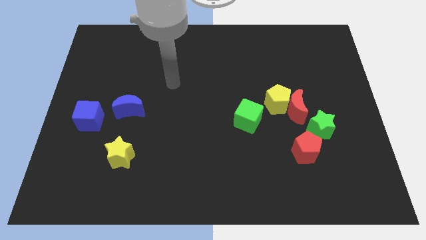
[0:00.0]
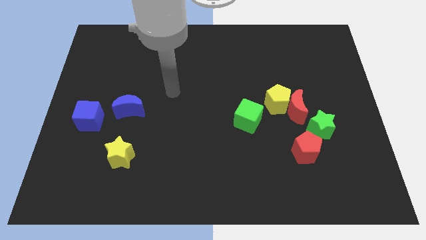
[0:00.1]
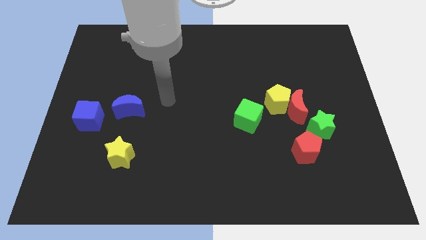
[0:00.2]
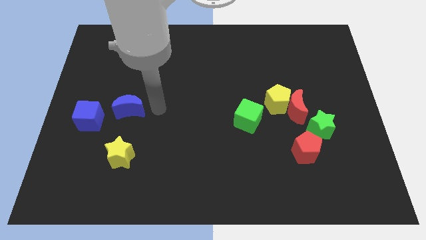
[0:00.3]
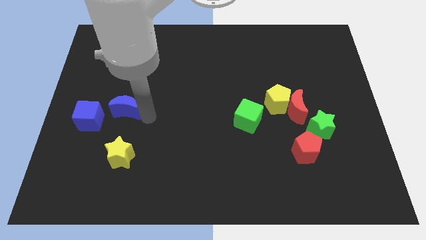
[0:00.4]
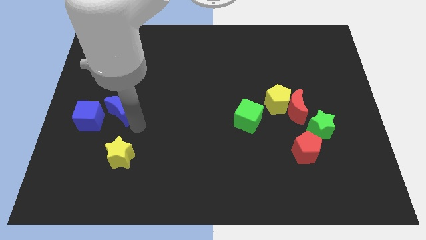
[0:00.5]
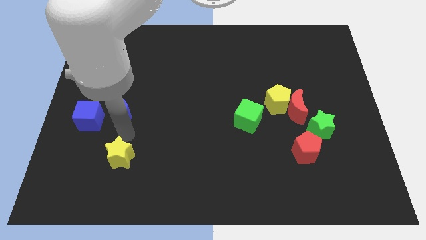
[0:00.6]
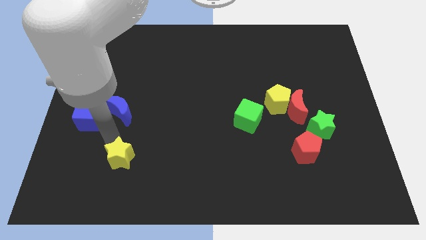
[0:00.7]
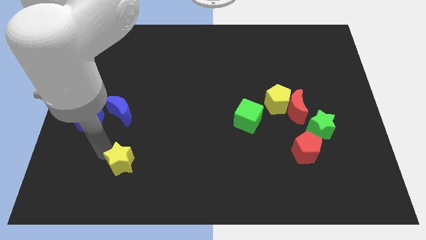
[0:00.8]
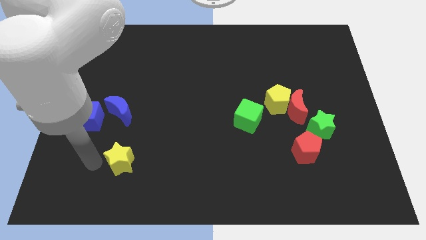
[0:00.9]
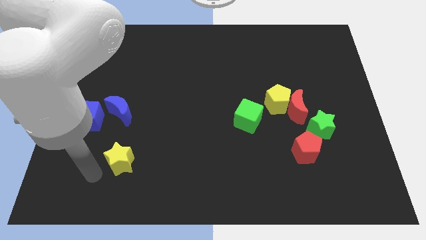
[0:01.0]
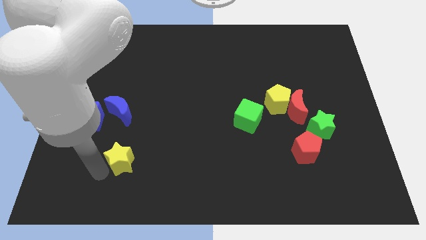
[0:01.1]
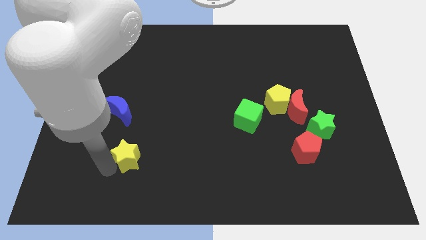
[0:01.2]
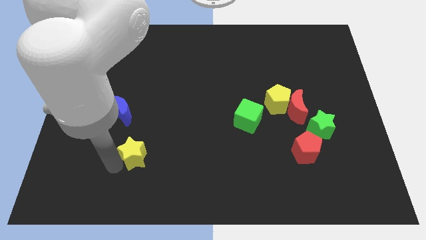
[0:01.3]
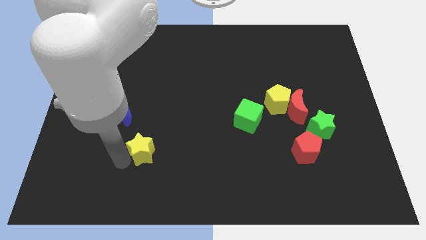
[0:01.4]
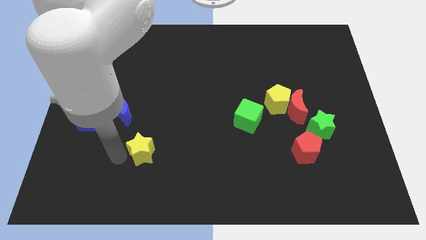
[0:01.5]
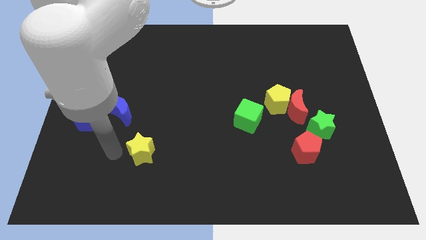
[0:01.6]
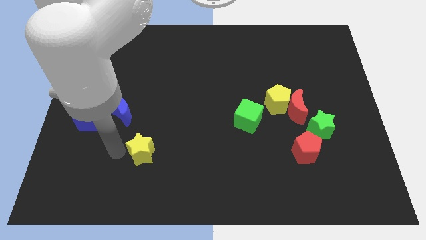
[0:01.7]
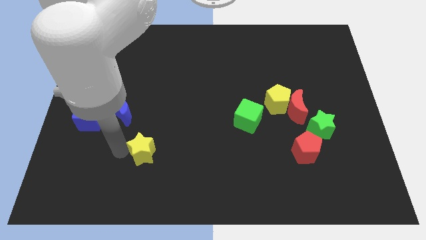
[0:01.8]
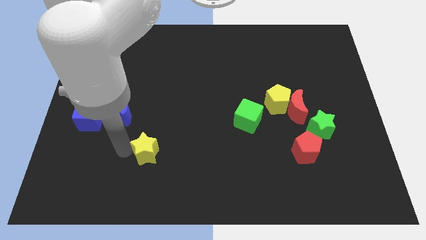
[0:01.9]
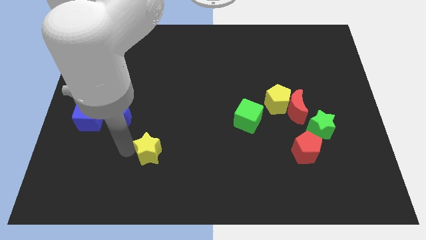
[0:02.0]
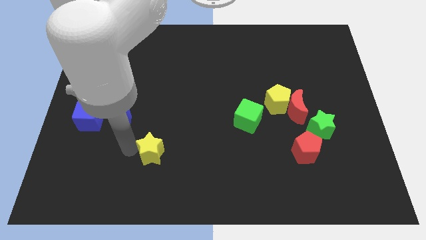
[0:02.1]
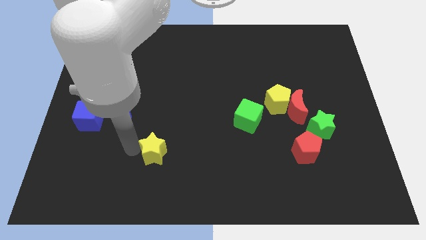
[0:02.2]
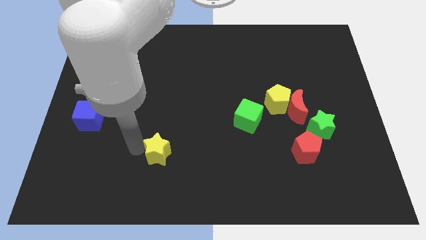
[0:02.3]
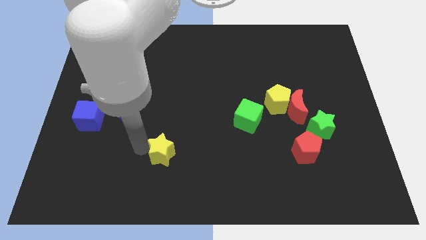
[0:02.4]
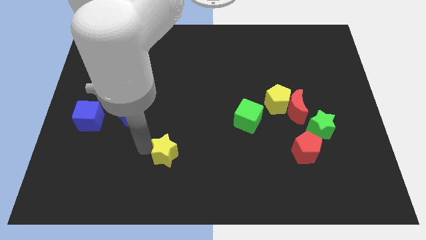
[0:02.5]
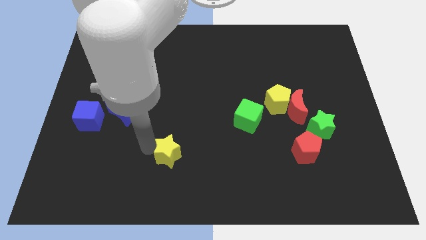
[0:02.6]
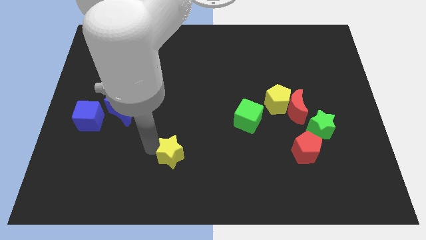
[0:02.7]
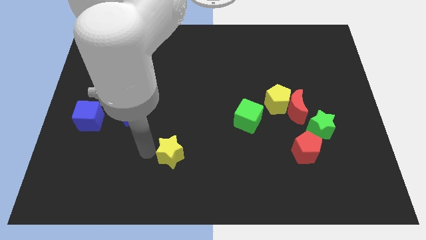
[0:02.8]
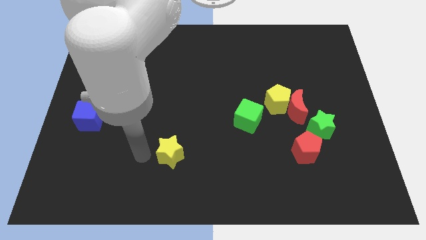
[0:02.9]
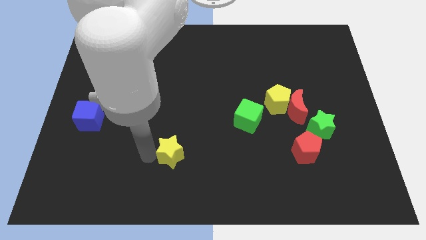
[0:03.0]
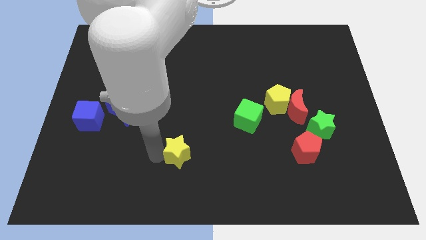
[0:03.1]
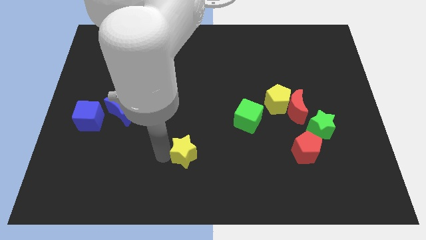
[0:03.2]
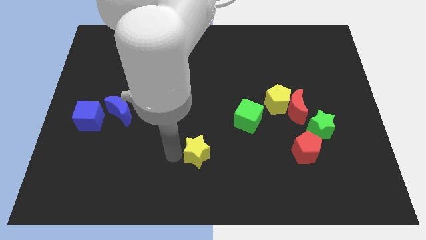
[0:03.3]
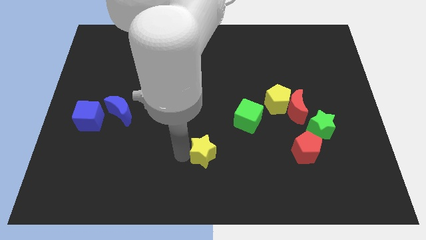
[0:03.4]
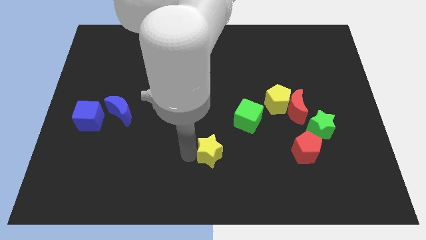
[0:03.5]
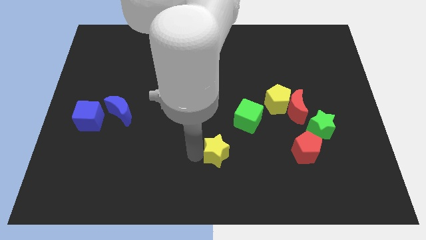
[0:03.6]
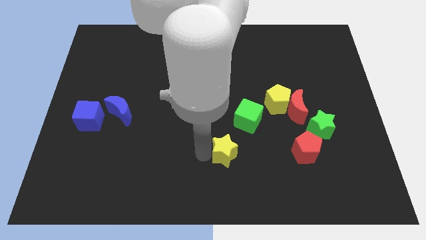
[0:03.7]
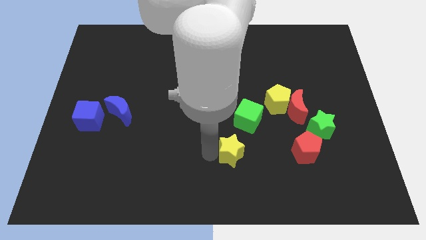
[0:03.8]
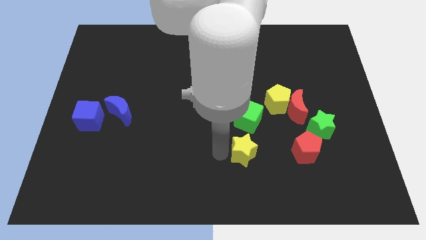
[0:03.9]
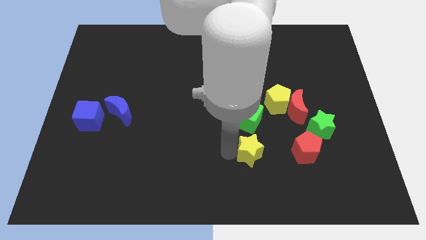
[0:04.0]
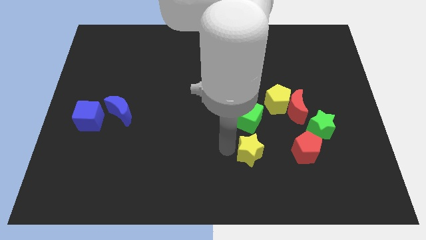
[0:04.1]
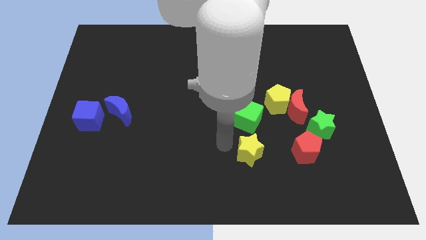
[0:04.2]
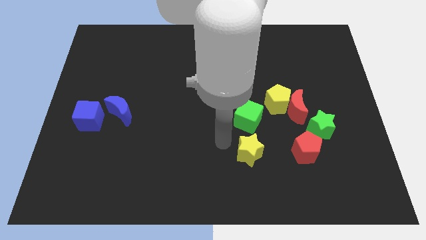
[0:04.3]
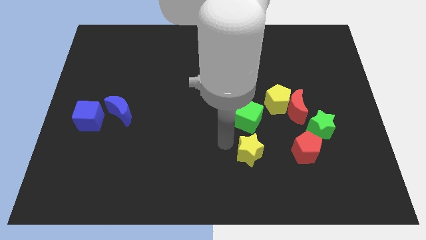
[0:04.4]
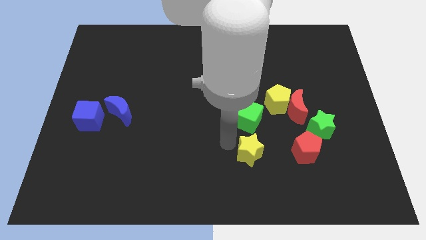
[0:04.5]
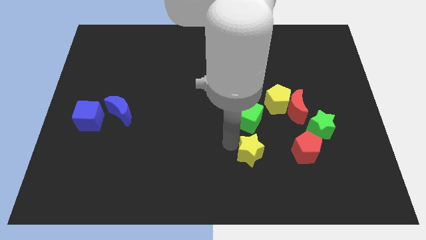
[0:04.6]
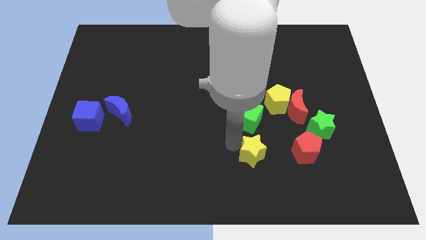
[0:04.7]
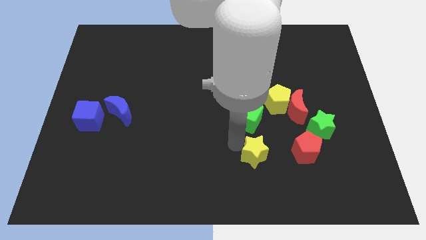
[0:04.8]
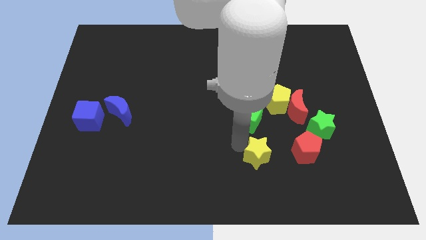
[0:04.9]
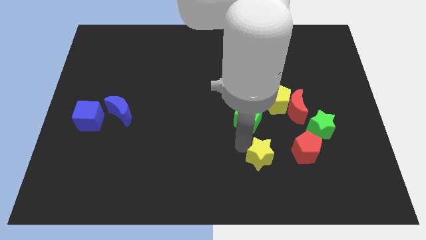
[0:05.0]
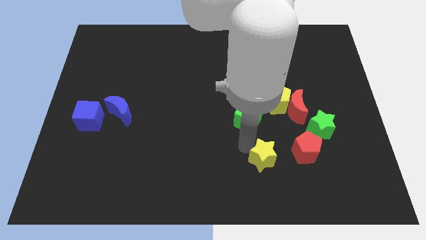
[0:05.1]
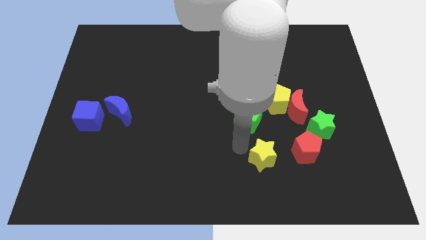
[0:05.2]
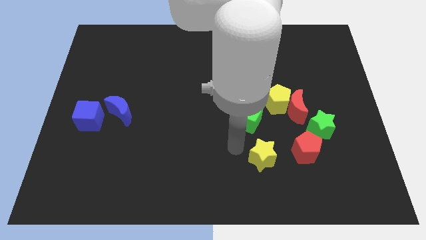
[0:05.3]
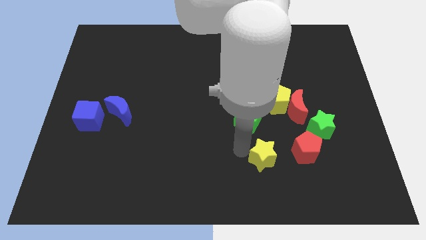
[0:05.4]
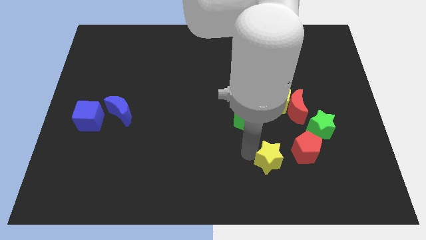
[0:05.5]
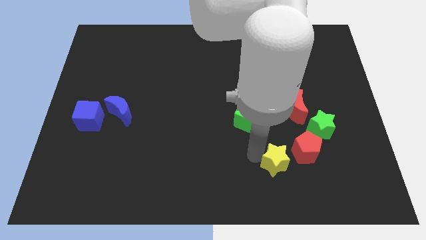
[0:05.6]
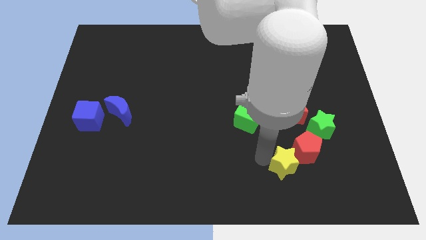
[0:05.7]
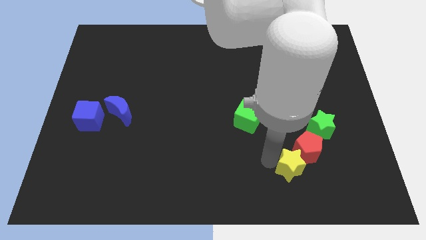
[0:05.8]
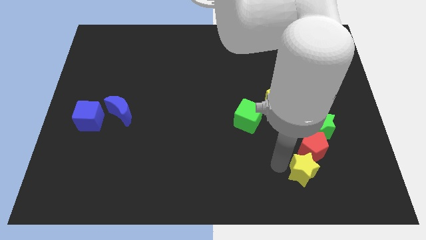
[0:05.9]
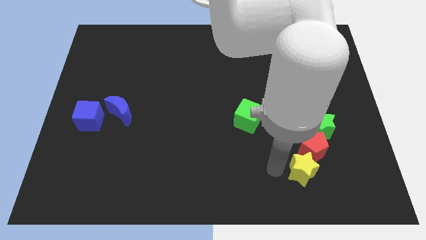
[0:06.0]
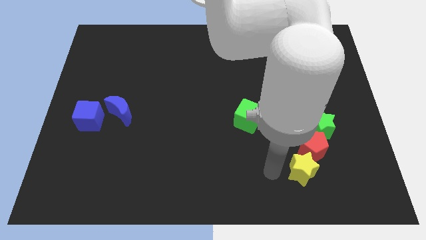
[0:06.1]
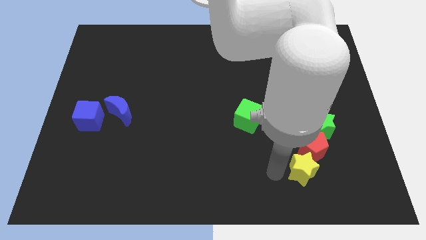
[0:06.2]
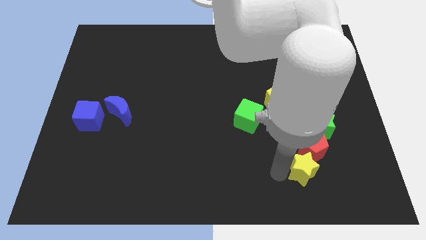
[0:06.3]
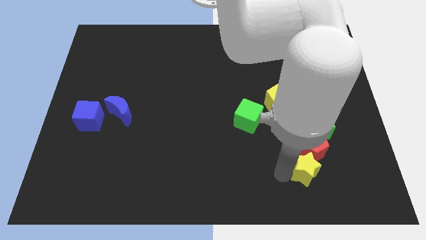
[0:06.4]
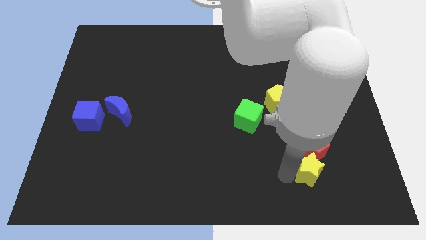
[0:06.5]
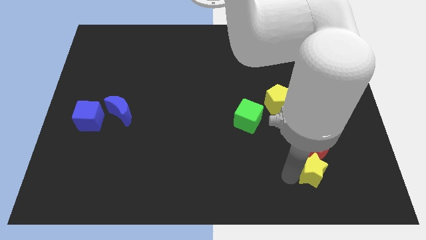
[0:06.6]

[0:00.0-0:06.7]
slide the yellow star to the bottom right of the red pentagon
